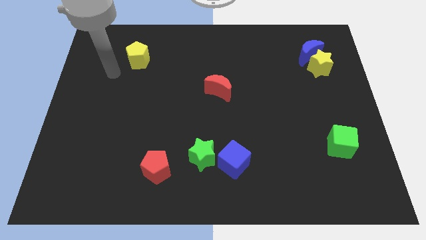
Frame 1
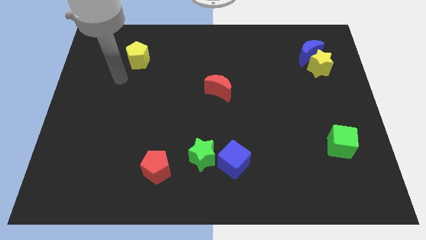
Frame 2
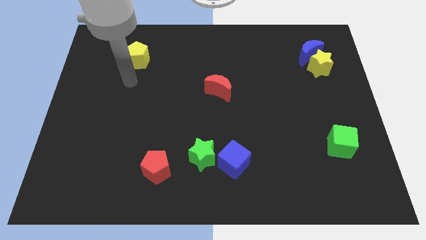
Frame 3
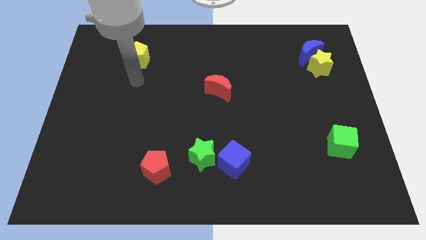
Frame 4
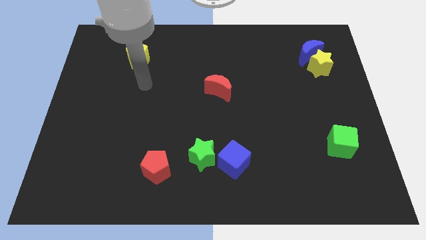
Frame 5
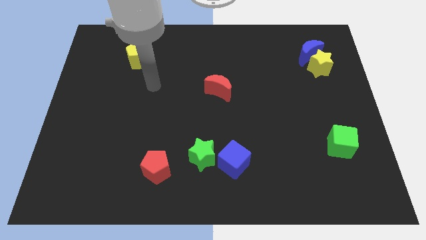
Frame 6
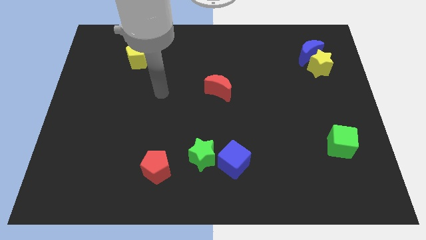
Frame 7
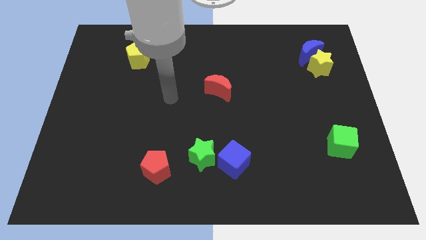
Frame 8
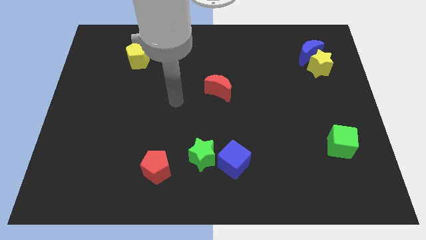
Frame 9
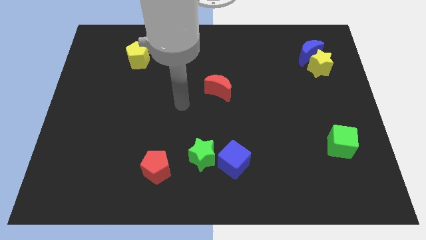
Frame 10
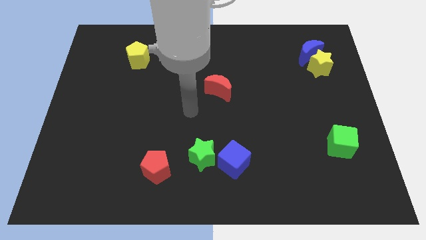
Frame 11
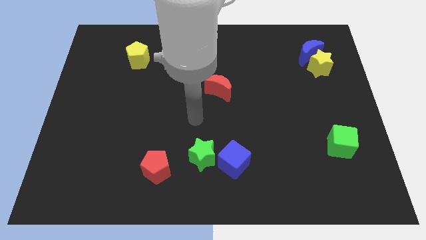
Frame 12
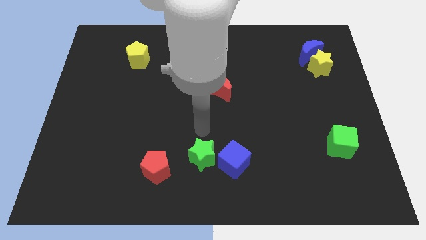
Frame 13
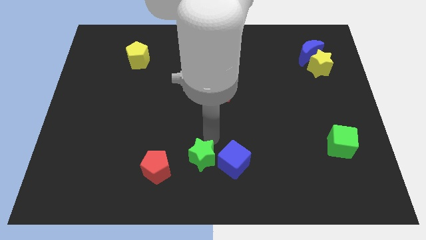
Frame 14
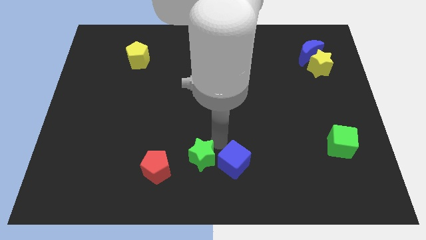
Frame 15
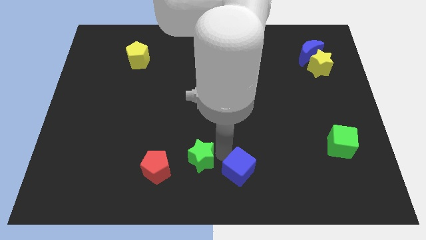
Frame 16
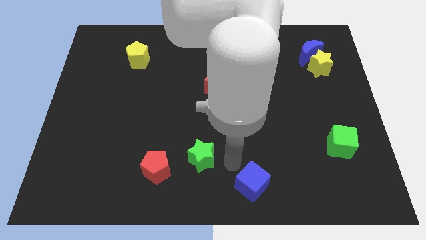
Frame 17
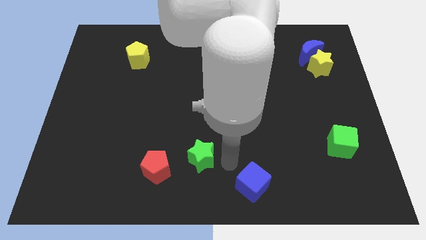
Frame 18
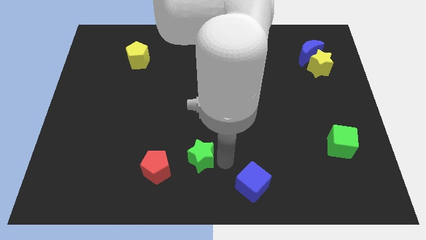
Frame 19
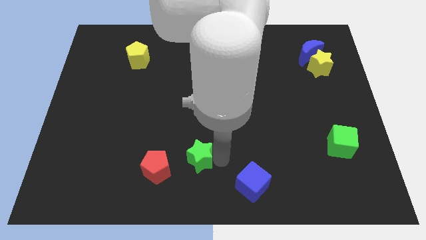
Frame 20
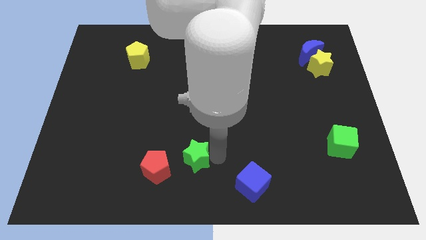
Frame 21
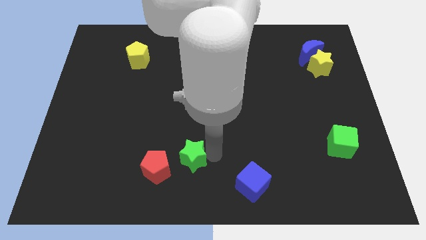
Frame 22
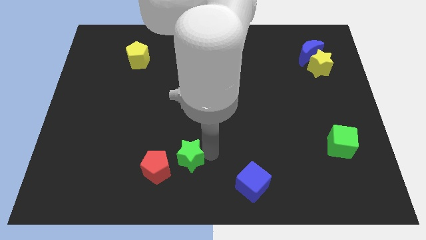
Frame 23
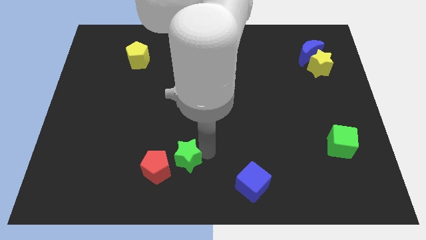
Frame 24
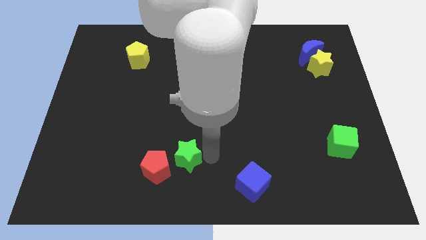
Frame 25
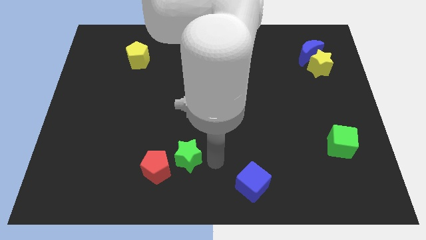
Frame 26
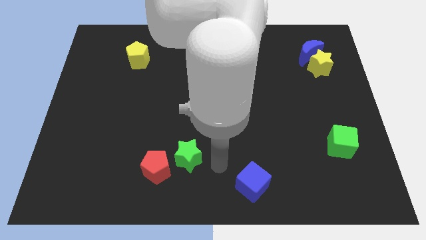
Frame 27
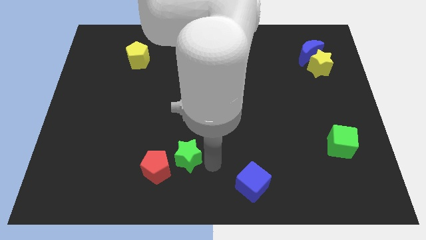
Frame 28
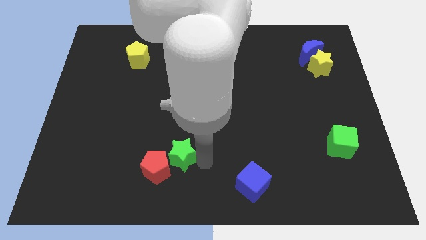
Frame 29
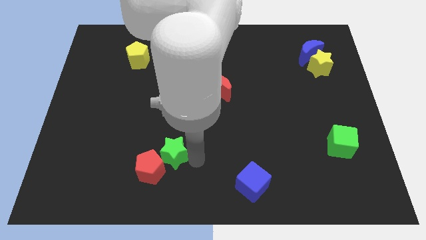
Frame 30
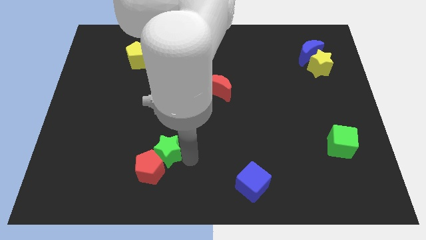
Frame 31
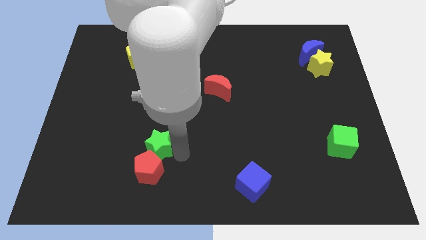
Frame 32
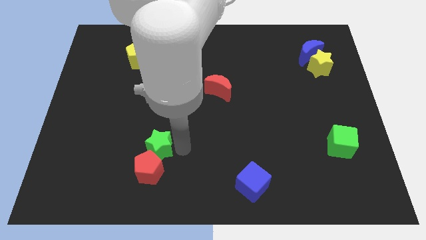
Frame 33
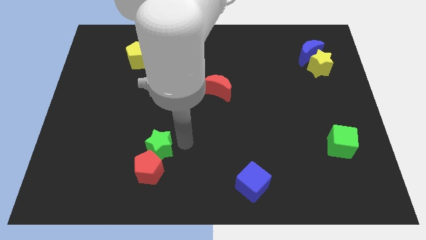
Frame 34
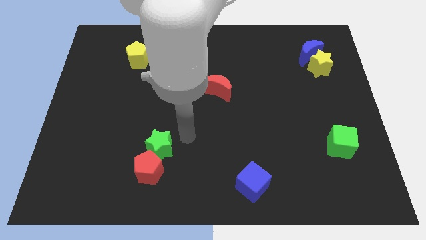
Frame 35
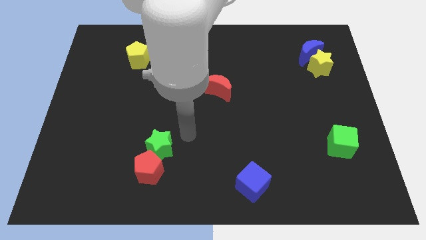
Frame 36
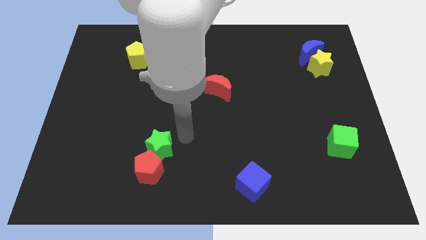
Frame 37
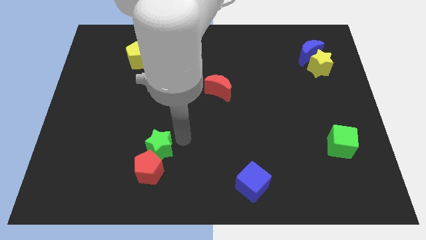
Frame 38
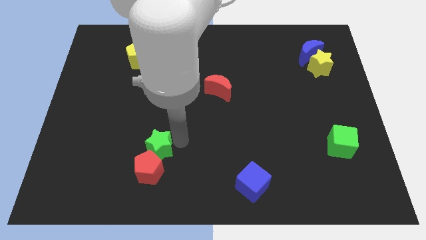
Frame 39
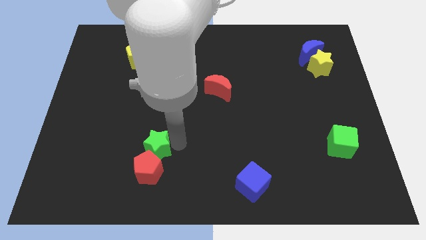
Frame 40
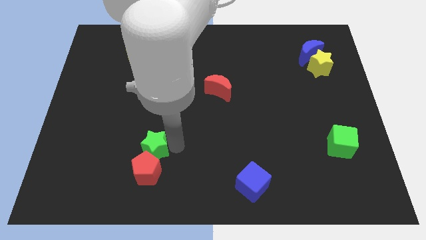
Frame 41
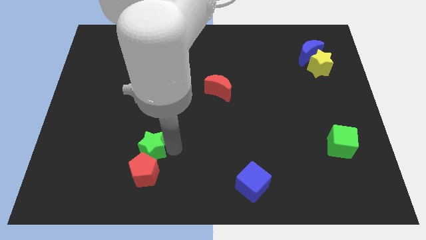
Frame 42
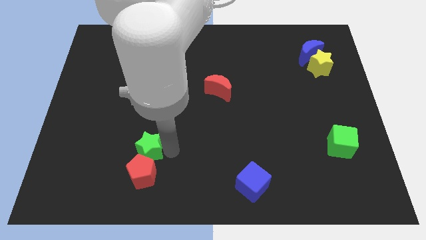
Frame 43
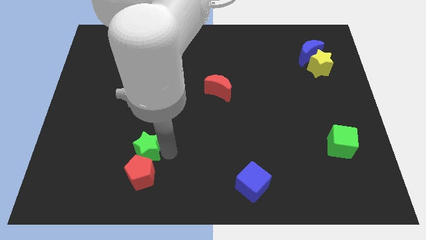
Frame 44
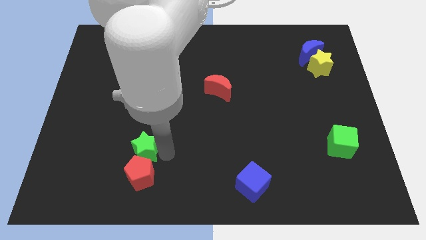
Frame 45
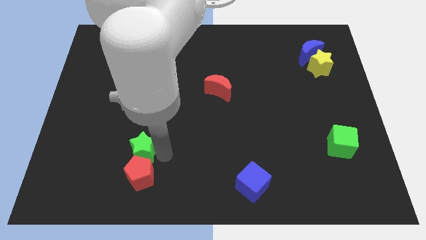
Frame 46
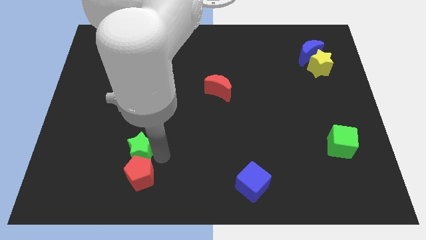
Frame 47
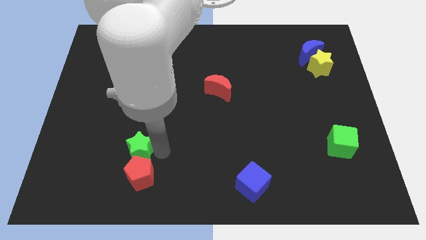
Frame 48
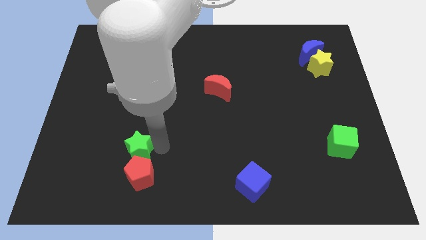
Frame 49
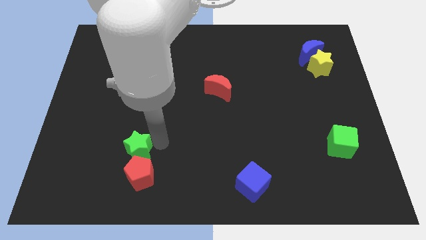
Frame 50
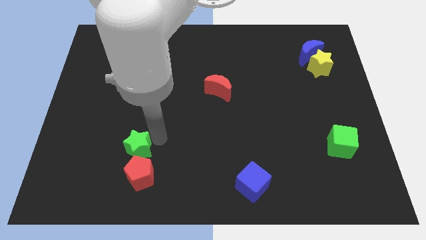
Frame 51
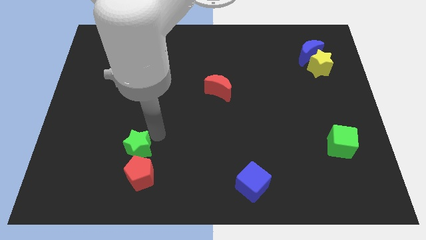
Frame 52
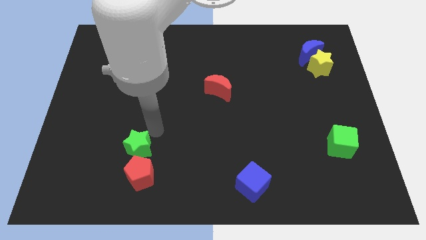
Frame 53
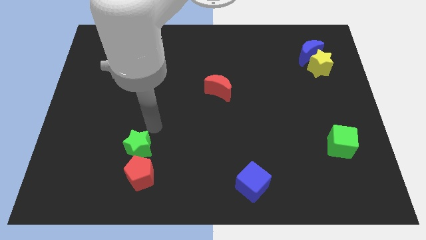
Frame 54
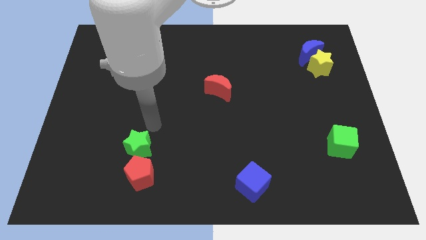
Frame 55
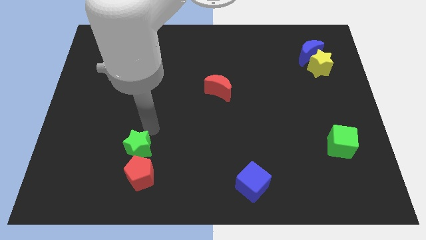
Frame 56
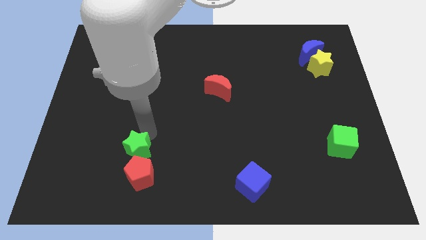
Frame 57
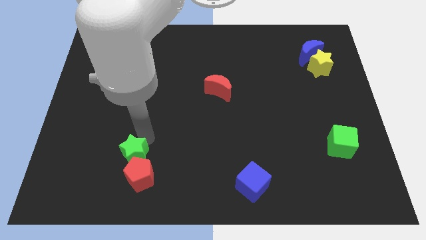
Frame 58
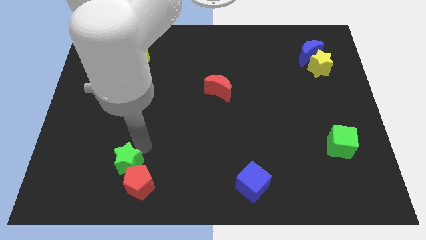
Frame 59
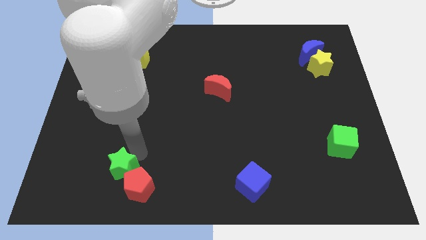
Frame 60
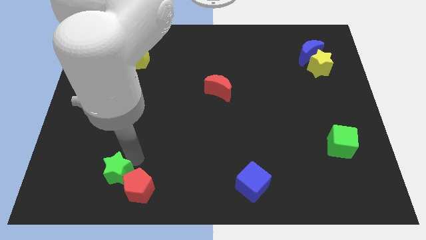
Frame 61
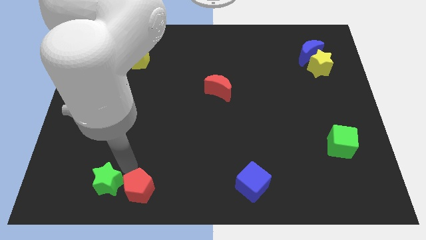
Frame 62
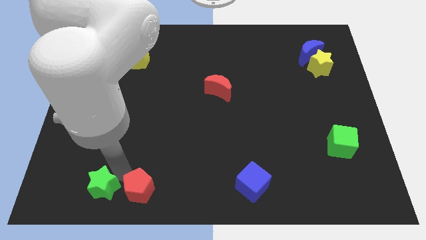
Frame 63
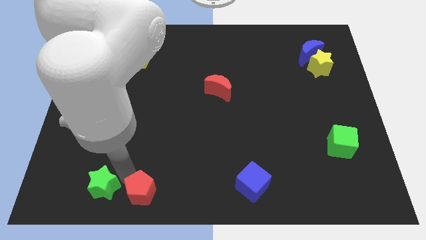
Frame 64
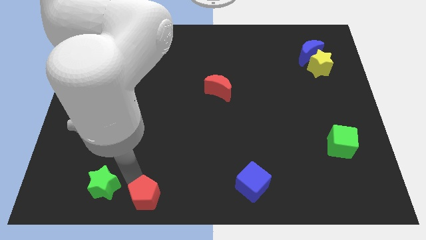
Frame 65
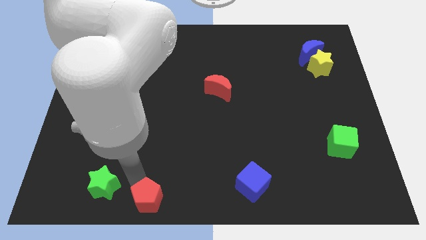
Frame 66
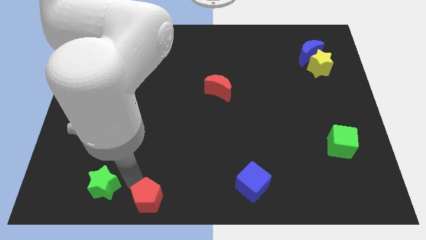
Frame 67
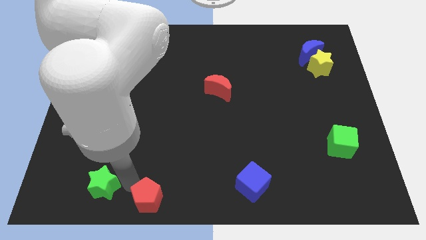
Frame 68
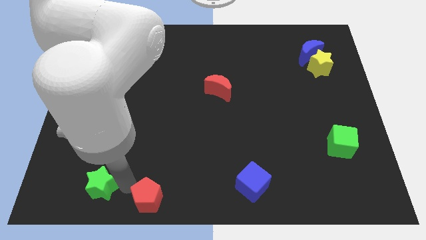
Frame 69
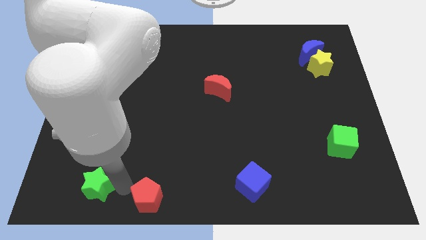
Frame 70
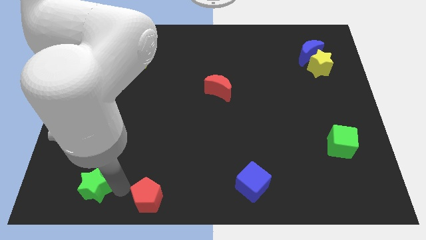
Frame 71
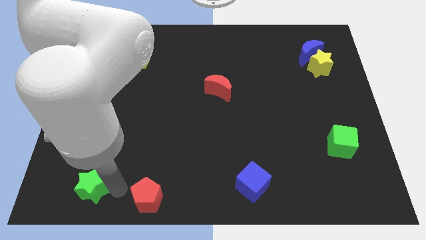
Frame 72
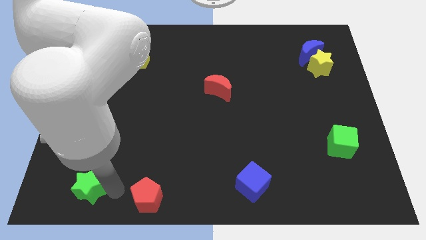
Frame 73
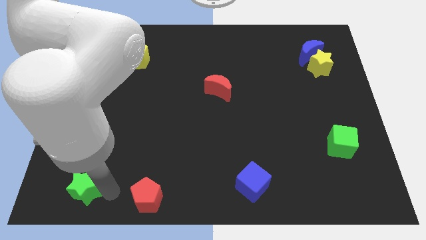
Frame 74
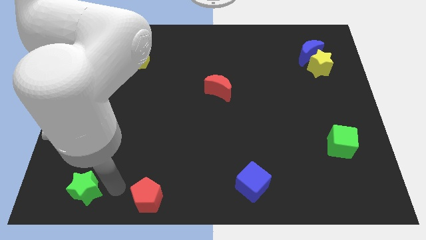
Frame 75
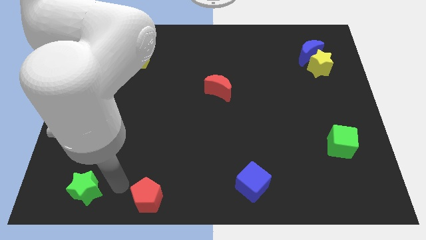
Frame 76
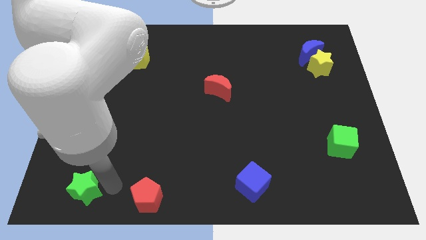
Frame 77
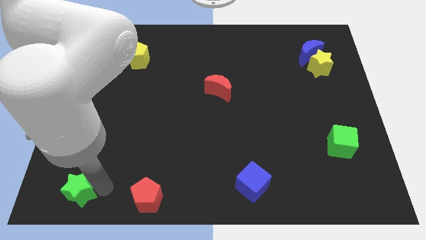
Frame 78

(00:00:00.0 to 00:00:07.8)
put the green star to the lower left corner
